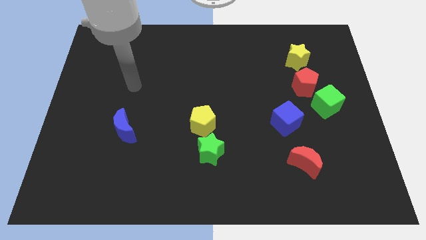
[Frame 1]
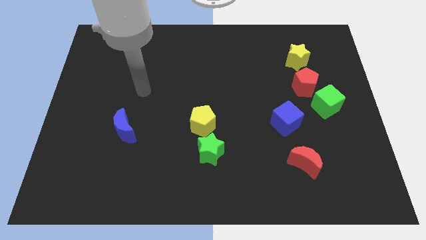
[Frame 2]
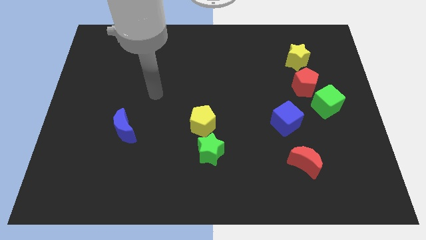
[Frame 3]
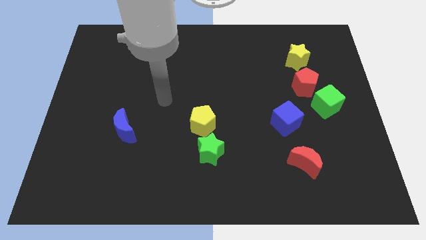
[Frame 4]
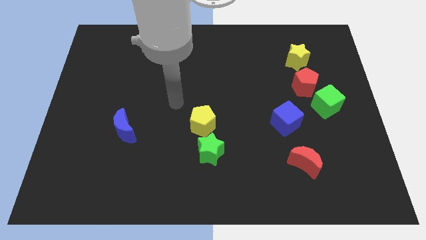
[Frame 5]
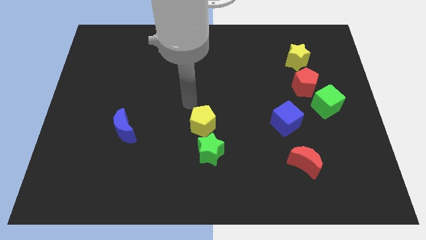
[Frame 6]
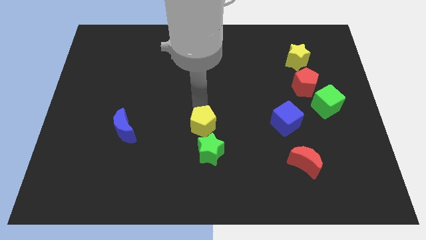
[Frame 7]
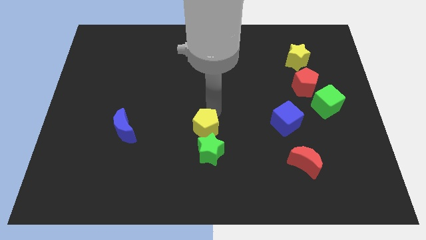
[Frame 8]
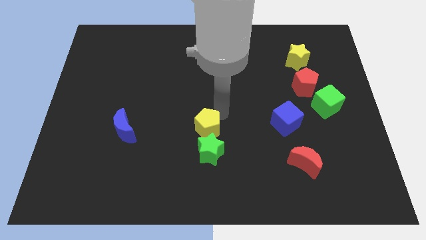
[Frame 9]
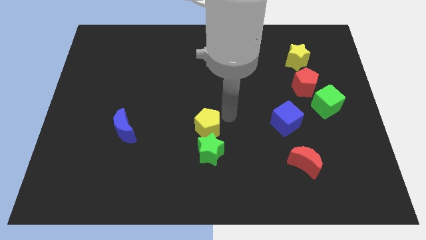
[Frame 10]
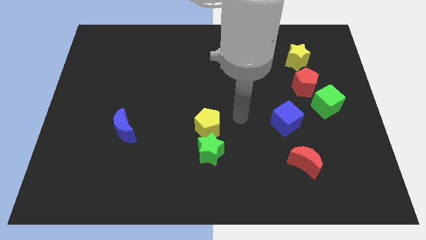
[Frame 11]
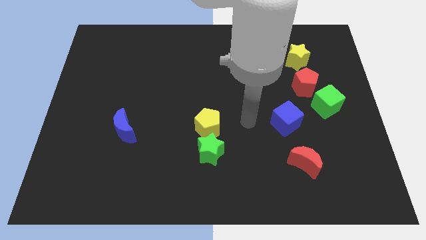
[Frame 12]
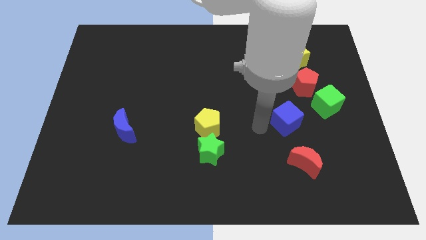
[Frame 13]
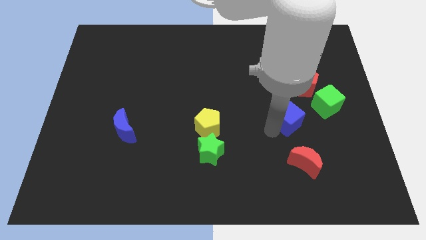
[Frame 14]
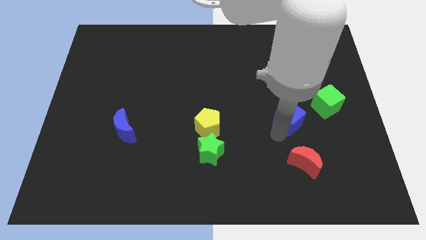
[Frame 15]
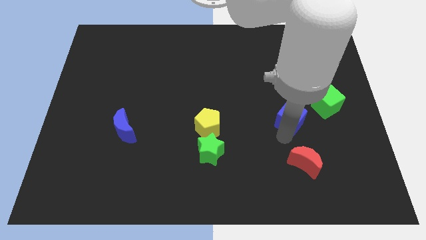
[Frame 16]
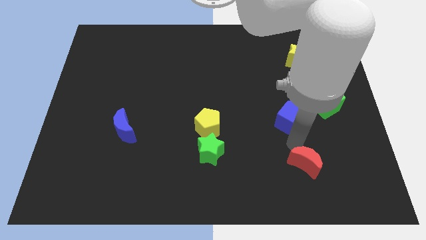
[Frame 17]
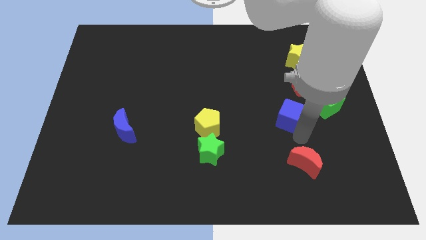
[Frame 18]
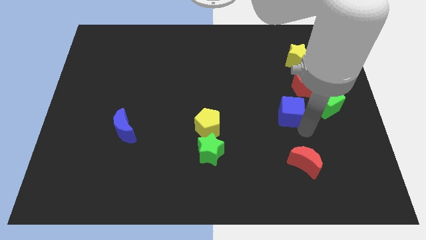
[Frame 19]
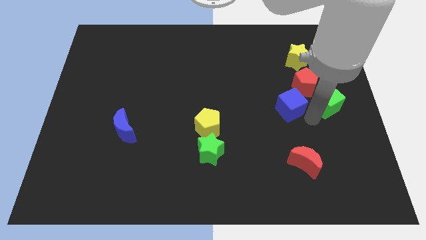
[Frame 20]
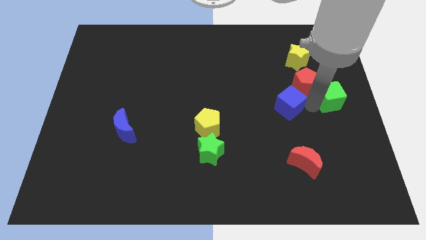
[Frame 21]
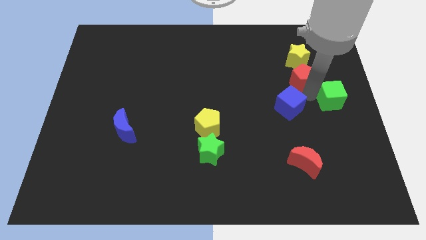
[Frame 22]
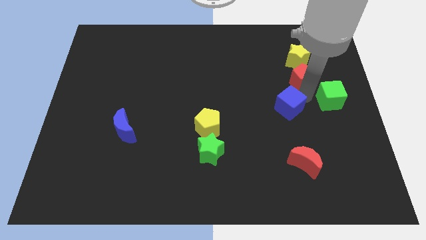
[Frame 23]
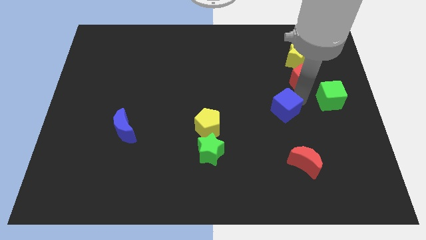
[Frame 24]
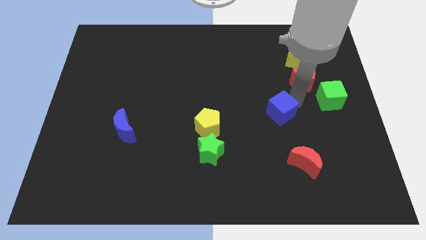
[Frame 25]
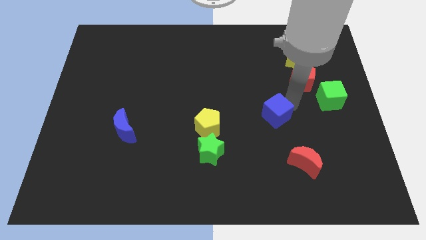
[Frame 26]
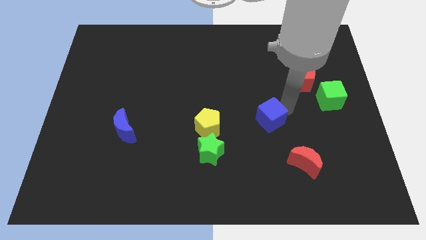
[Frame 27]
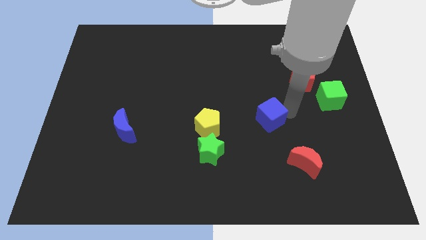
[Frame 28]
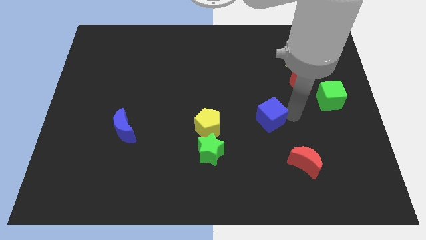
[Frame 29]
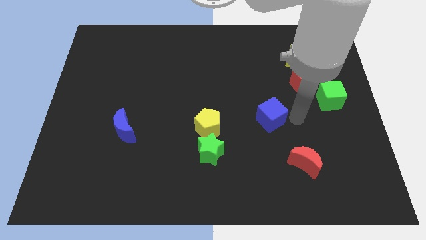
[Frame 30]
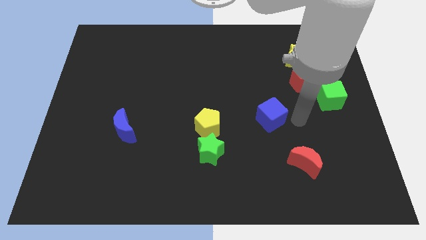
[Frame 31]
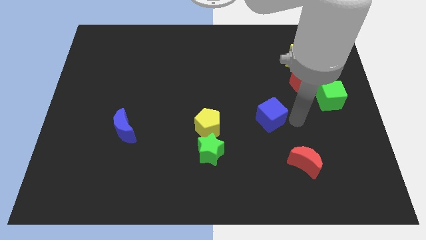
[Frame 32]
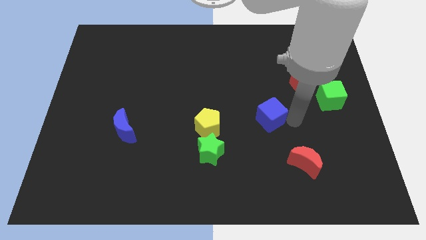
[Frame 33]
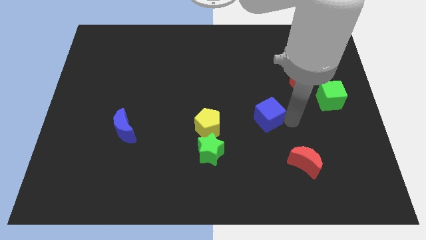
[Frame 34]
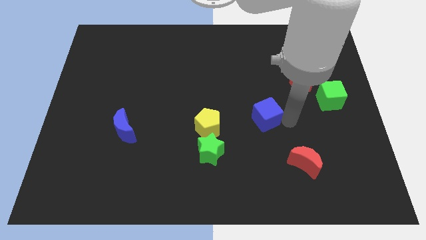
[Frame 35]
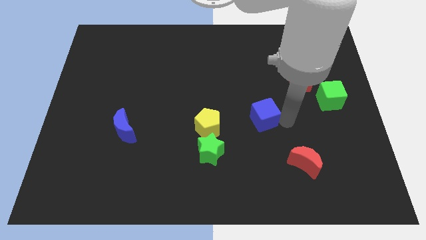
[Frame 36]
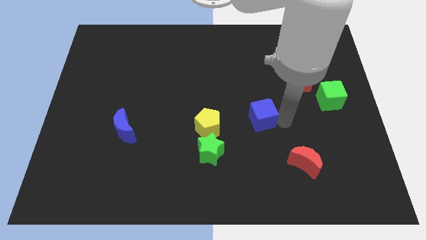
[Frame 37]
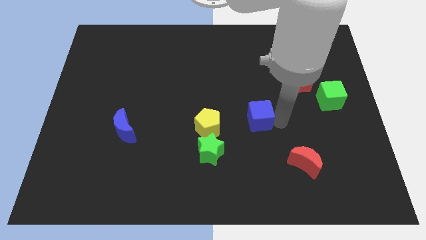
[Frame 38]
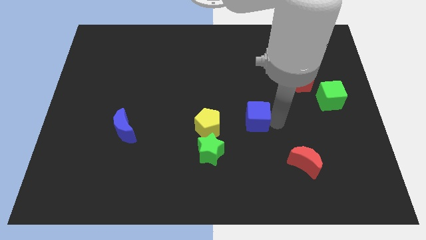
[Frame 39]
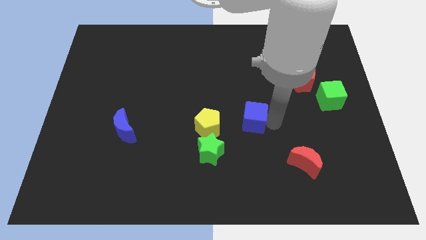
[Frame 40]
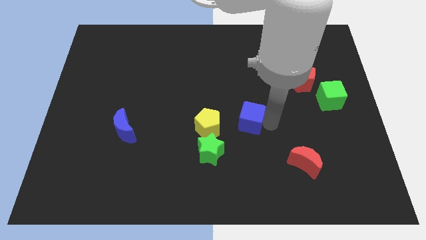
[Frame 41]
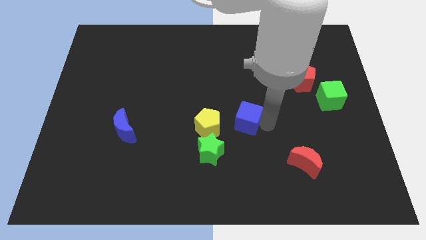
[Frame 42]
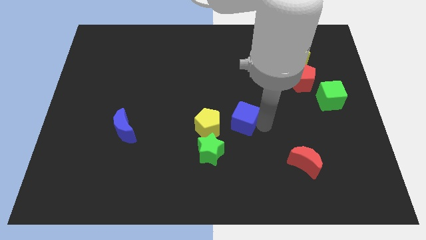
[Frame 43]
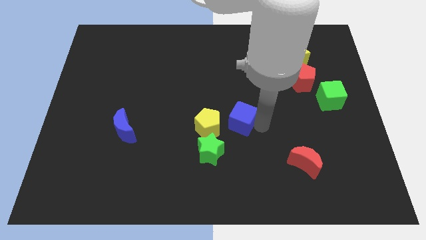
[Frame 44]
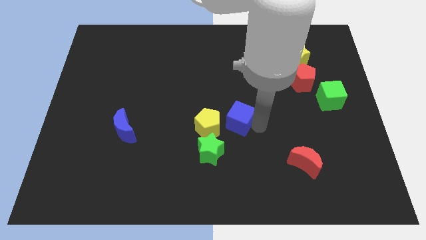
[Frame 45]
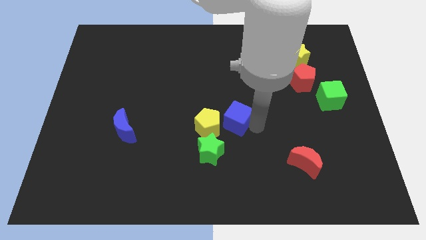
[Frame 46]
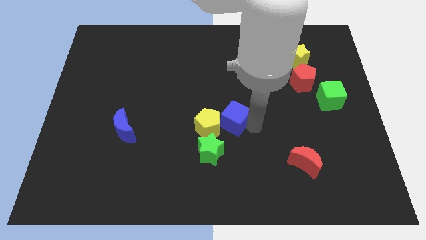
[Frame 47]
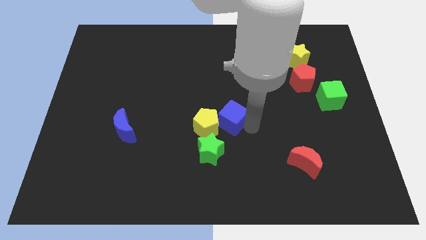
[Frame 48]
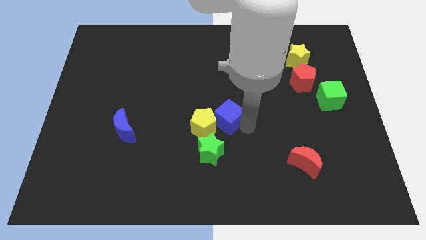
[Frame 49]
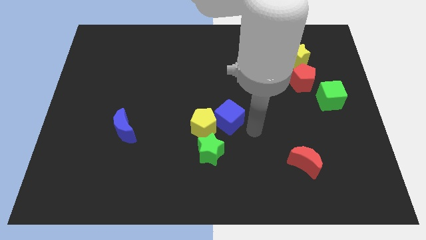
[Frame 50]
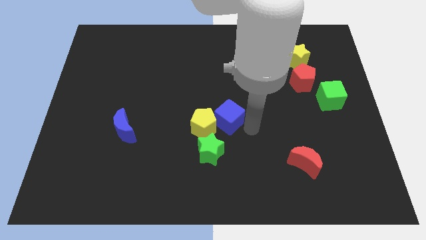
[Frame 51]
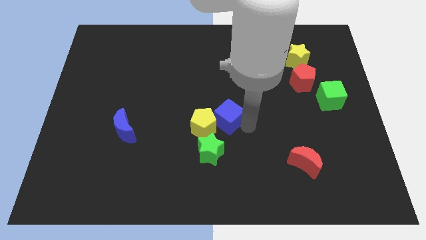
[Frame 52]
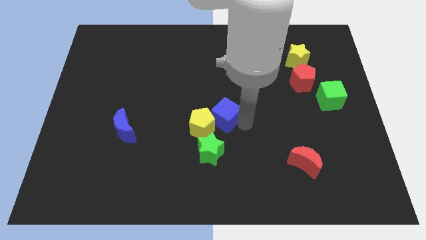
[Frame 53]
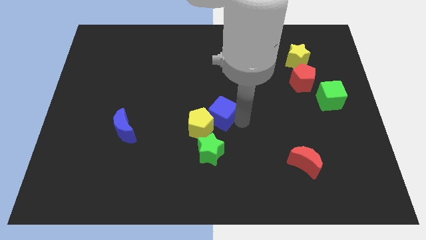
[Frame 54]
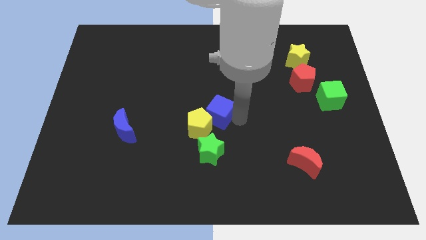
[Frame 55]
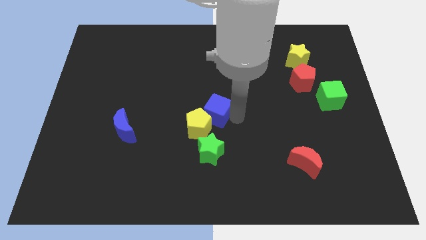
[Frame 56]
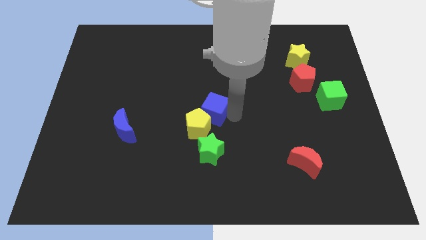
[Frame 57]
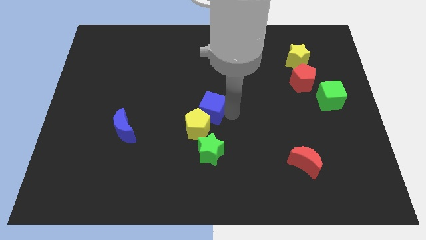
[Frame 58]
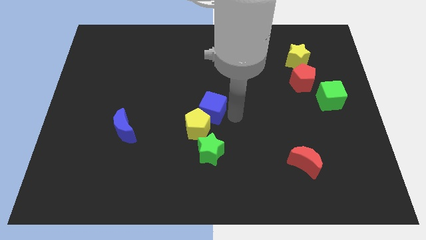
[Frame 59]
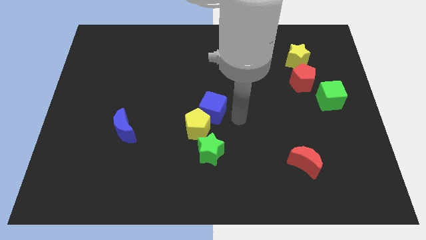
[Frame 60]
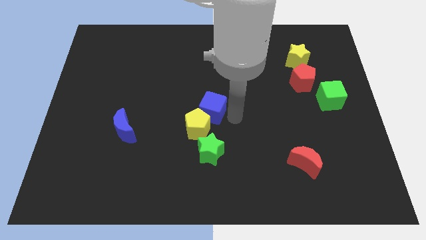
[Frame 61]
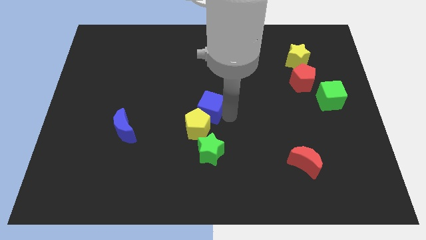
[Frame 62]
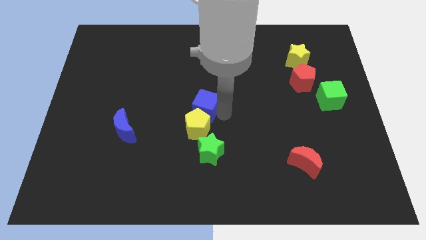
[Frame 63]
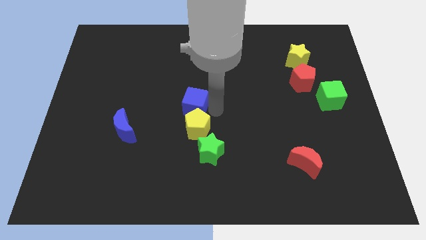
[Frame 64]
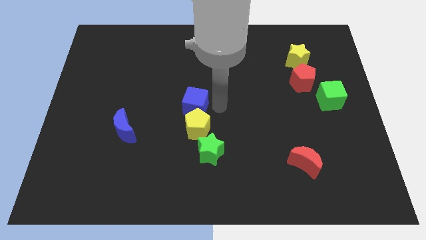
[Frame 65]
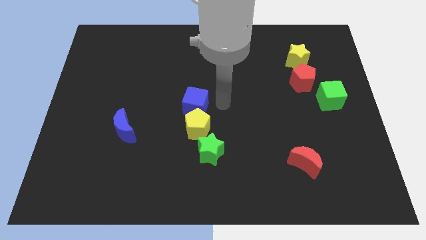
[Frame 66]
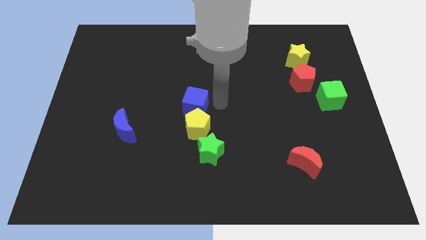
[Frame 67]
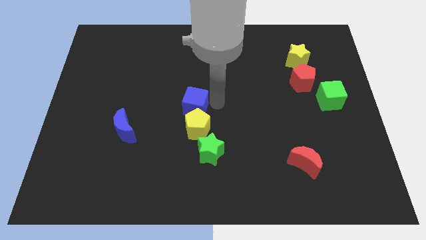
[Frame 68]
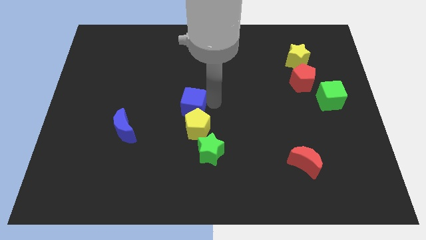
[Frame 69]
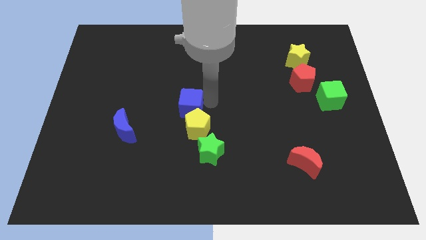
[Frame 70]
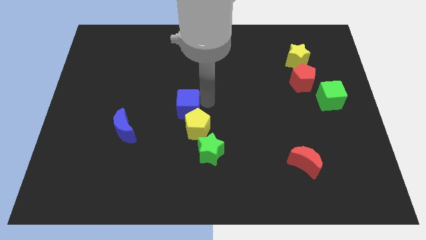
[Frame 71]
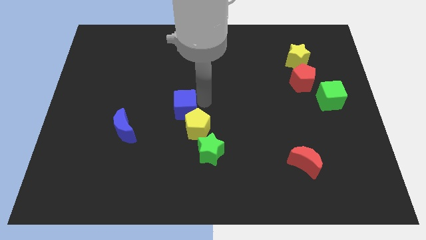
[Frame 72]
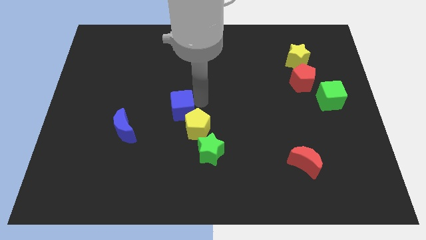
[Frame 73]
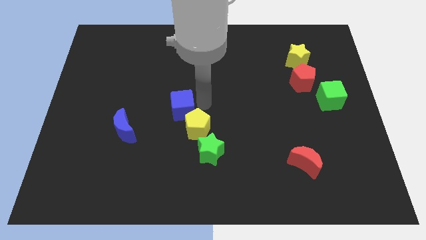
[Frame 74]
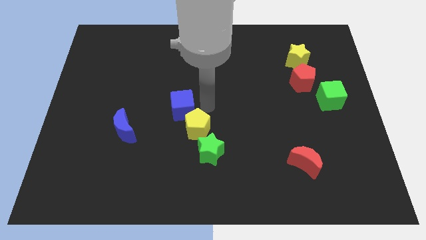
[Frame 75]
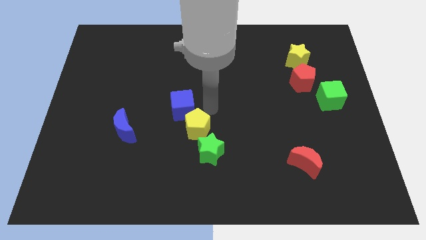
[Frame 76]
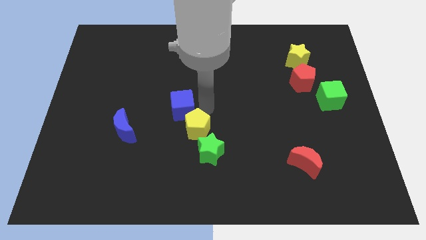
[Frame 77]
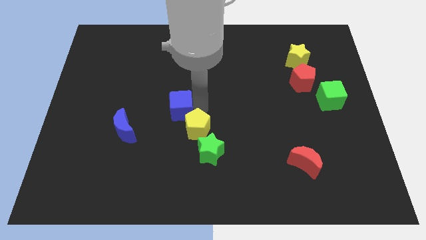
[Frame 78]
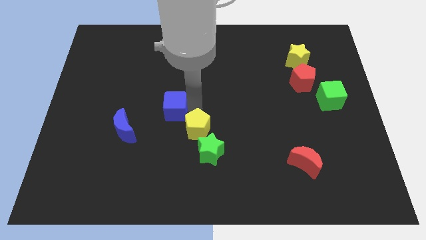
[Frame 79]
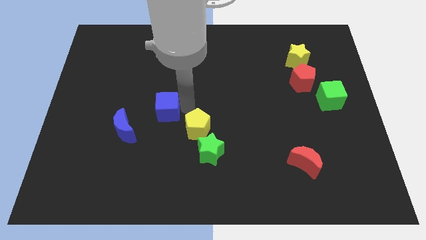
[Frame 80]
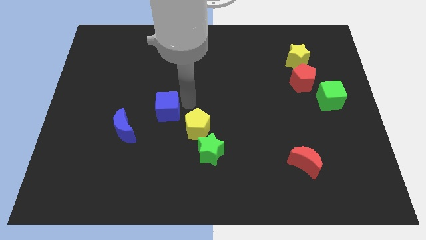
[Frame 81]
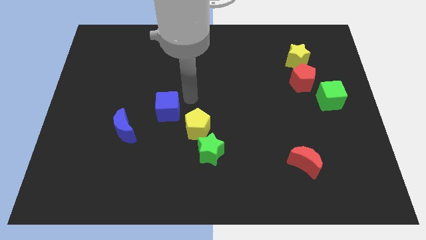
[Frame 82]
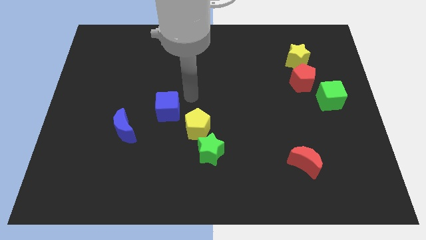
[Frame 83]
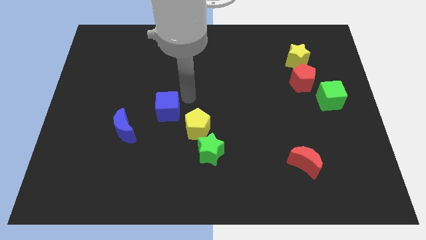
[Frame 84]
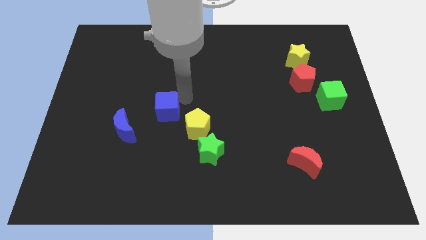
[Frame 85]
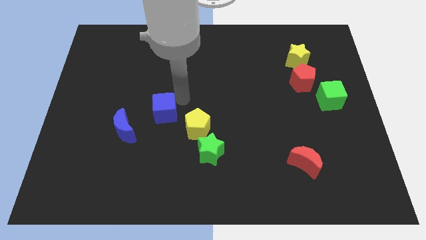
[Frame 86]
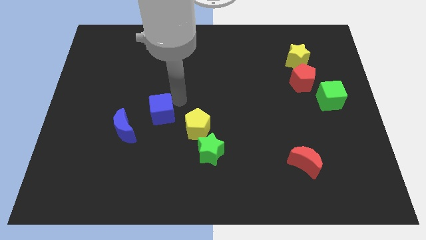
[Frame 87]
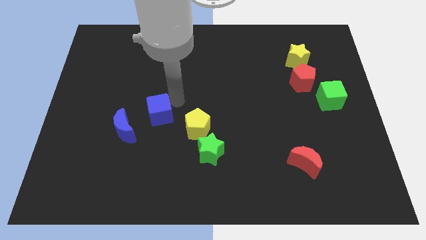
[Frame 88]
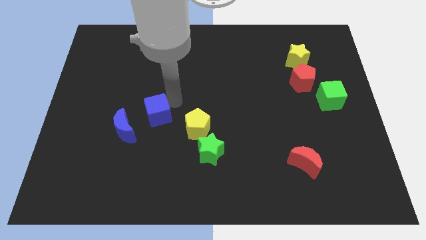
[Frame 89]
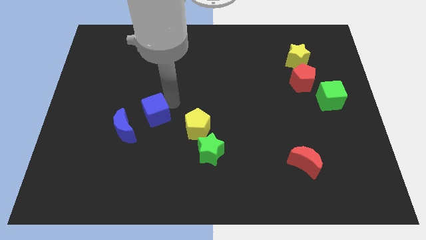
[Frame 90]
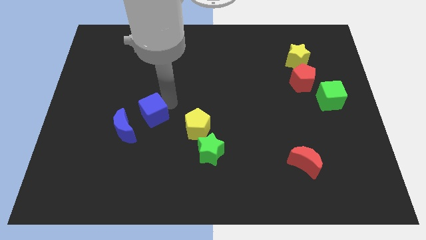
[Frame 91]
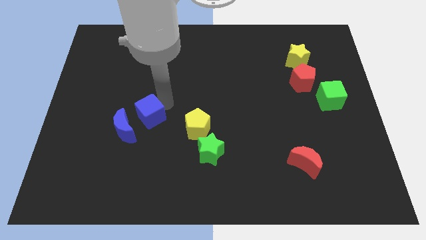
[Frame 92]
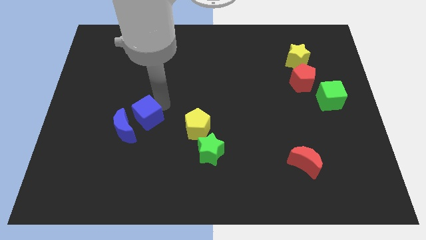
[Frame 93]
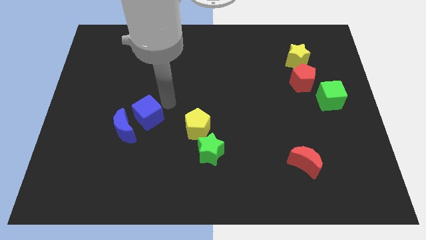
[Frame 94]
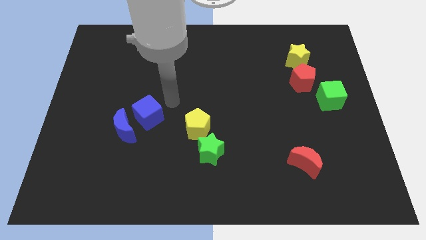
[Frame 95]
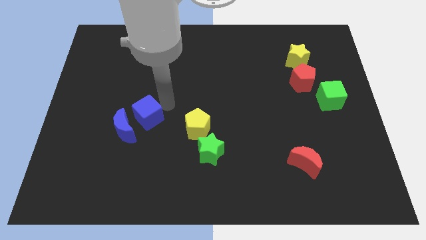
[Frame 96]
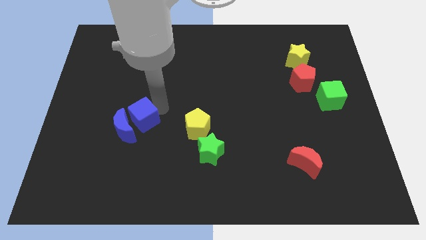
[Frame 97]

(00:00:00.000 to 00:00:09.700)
push the blue cube close to the blue moon
